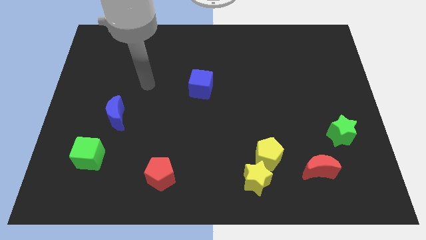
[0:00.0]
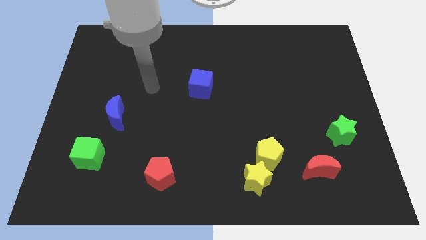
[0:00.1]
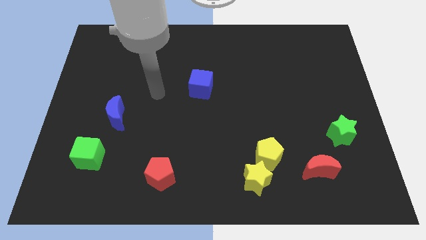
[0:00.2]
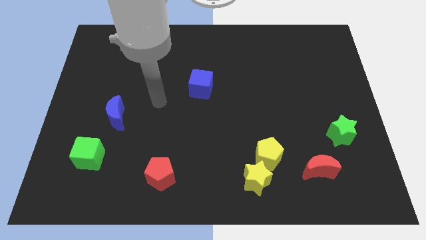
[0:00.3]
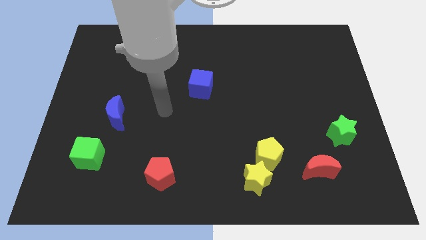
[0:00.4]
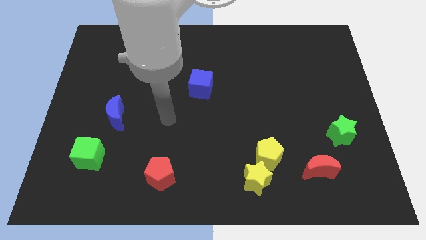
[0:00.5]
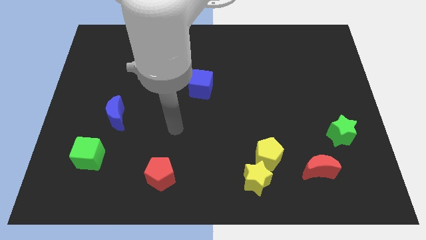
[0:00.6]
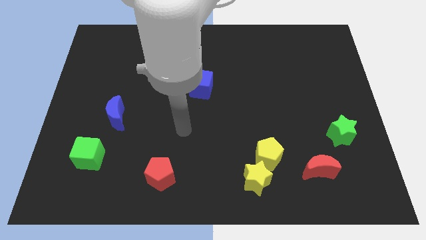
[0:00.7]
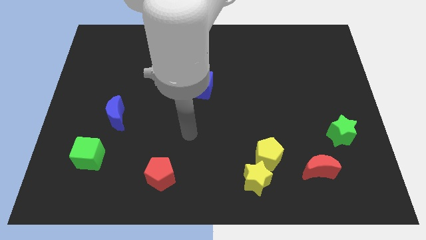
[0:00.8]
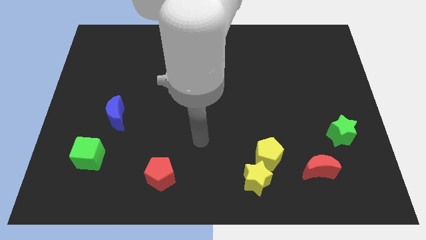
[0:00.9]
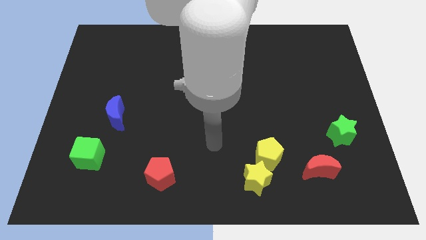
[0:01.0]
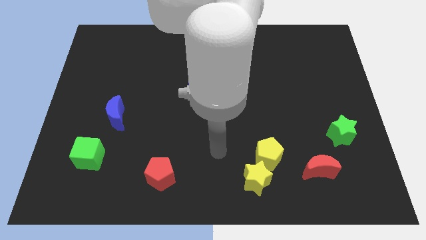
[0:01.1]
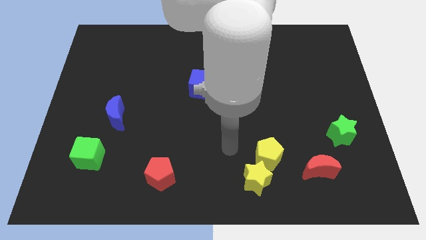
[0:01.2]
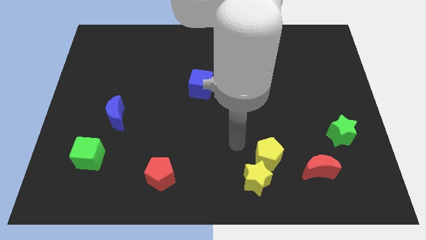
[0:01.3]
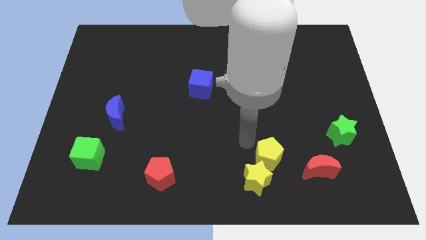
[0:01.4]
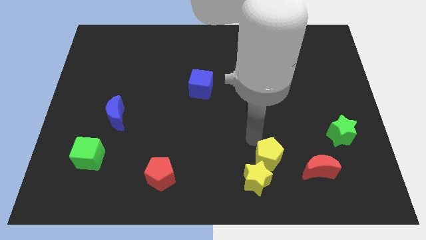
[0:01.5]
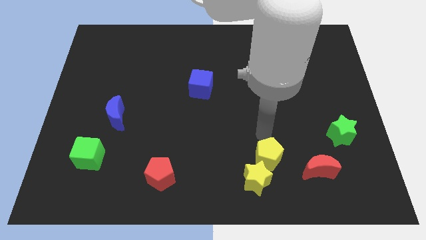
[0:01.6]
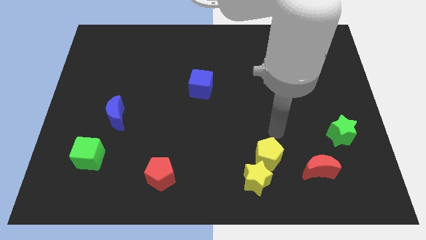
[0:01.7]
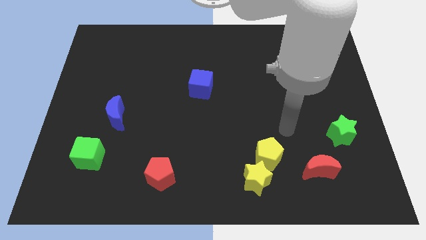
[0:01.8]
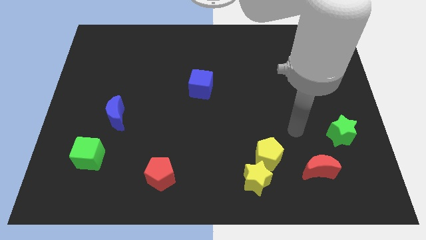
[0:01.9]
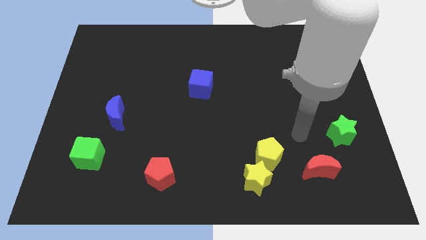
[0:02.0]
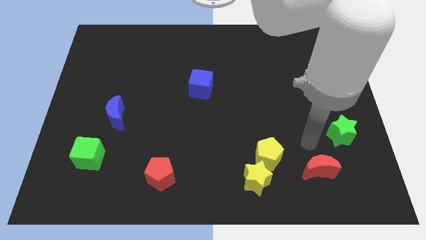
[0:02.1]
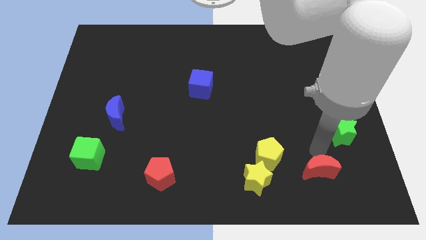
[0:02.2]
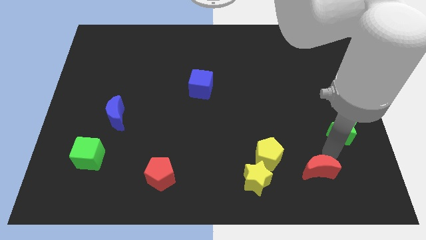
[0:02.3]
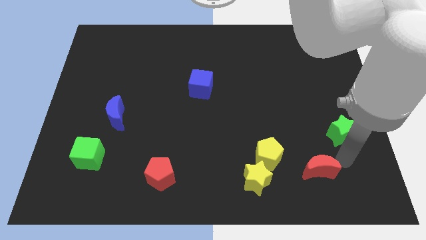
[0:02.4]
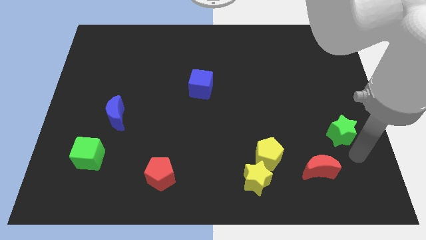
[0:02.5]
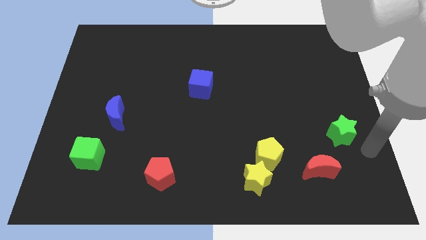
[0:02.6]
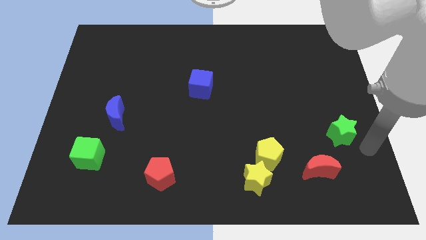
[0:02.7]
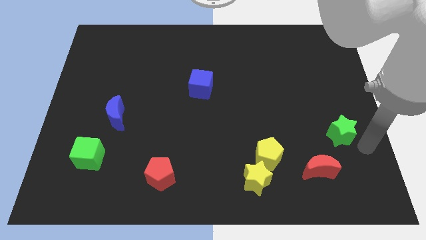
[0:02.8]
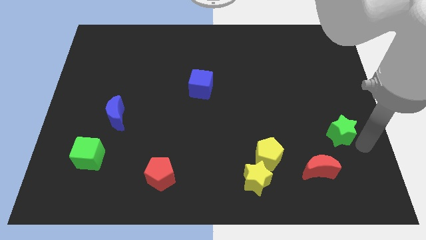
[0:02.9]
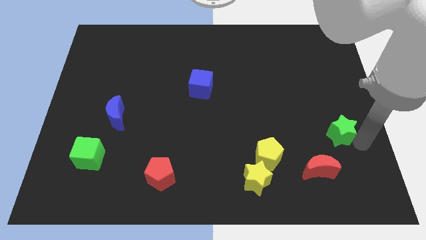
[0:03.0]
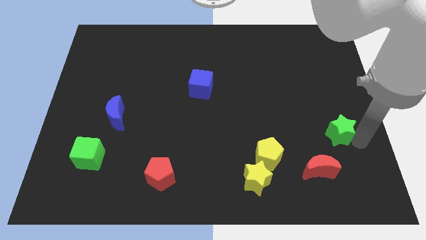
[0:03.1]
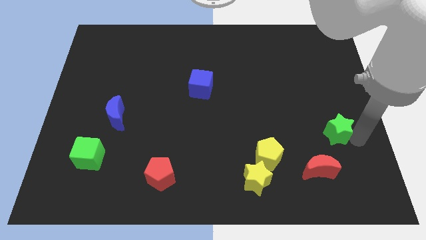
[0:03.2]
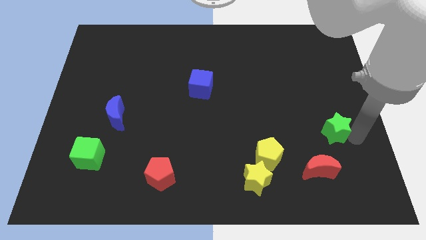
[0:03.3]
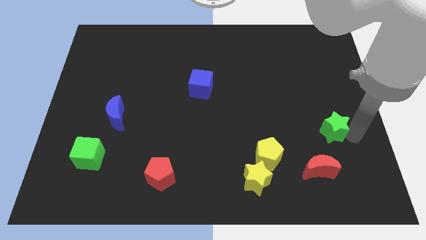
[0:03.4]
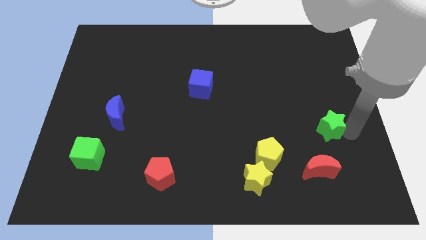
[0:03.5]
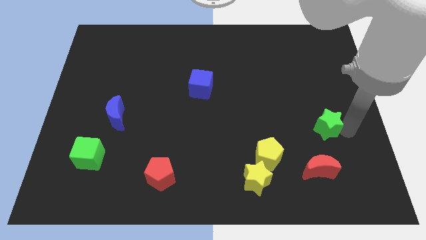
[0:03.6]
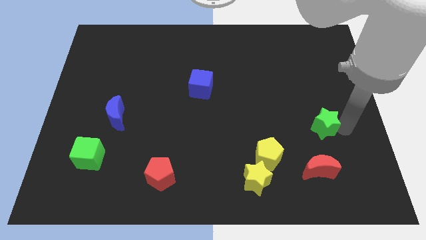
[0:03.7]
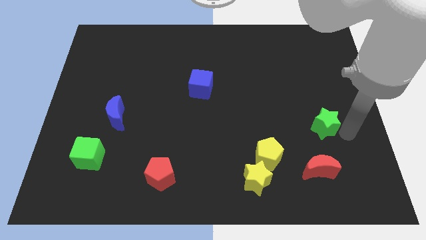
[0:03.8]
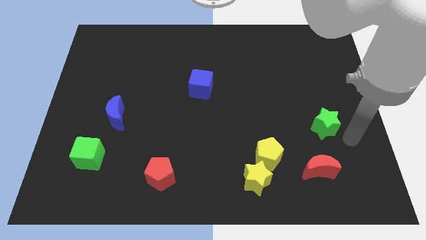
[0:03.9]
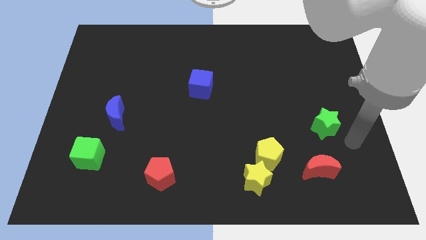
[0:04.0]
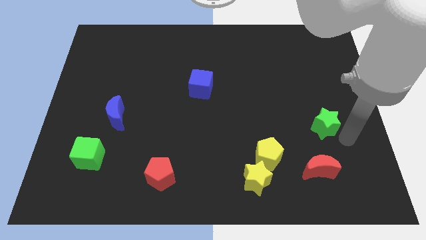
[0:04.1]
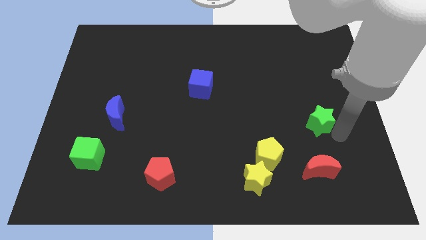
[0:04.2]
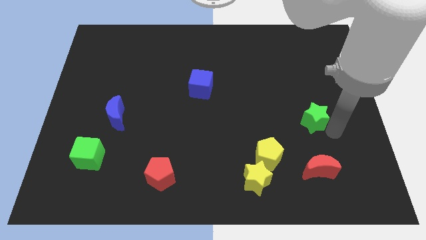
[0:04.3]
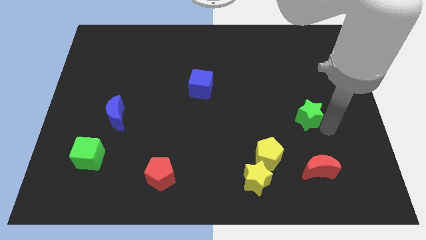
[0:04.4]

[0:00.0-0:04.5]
slightly slide the green star upwards and to the left

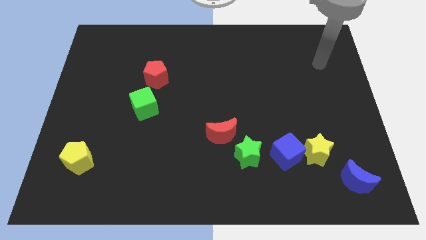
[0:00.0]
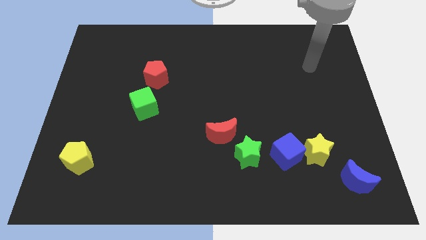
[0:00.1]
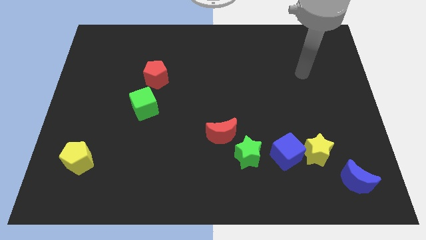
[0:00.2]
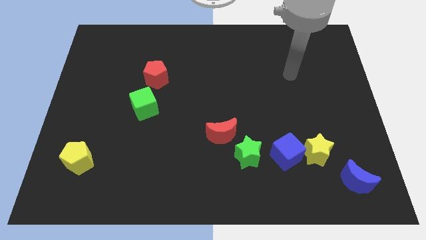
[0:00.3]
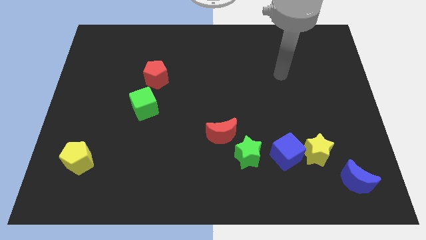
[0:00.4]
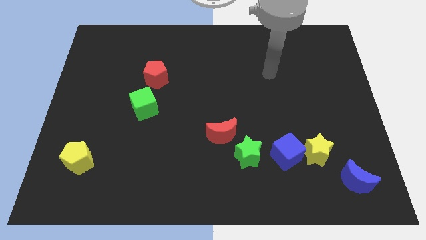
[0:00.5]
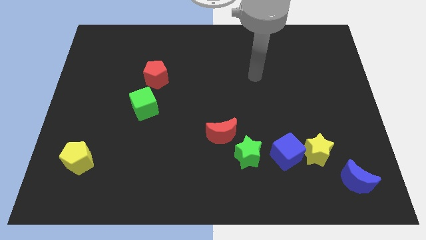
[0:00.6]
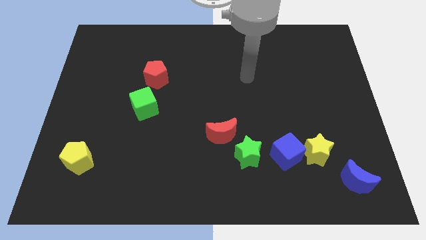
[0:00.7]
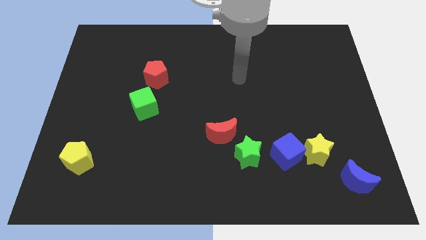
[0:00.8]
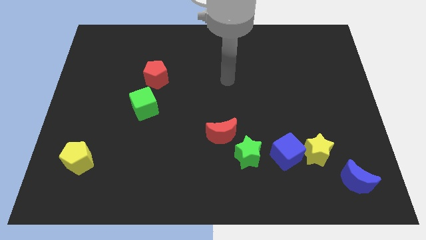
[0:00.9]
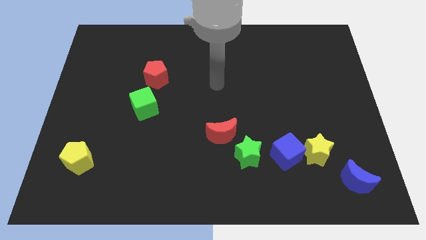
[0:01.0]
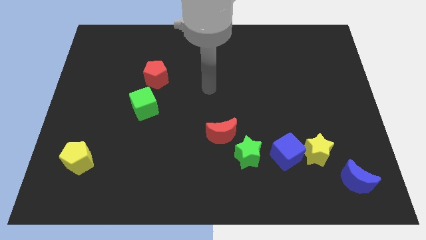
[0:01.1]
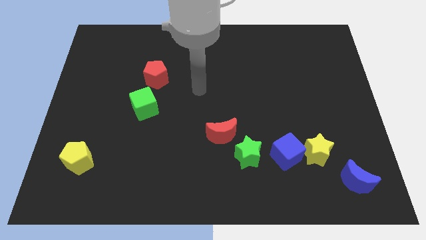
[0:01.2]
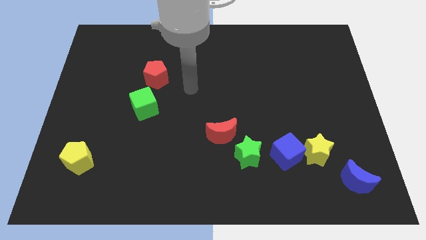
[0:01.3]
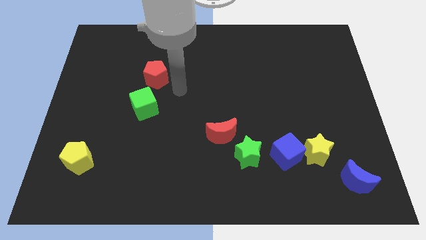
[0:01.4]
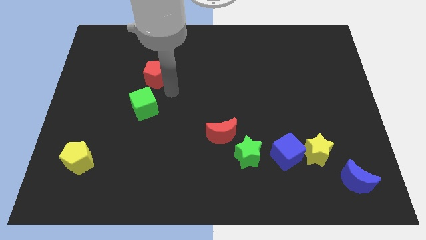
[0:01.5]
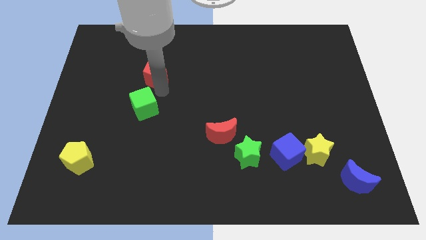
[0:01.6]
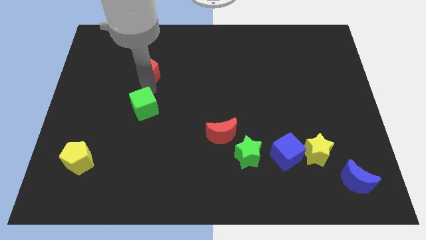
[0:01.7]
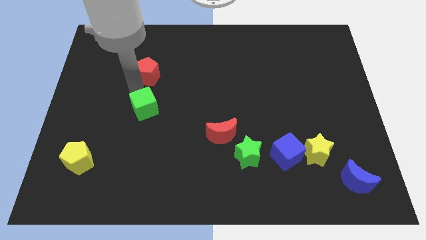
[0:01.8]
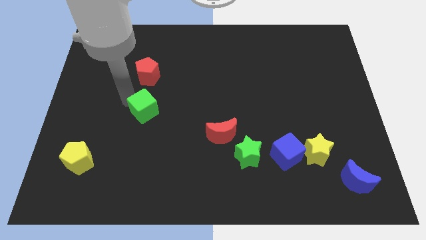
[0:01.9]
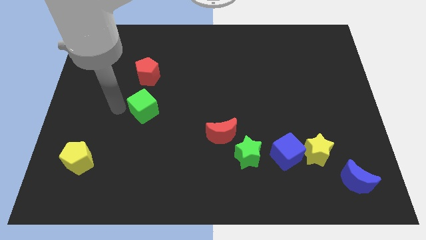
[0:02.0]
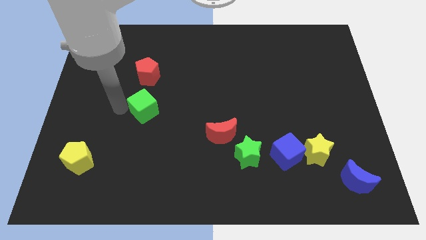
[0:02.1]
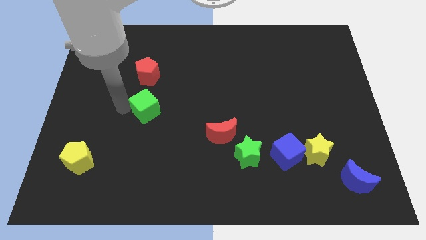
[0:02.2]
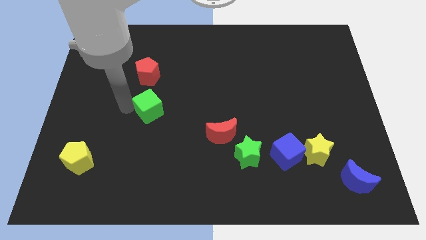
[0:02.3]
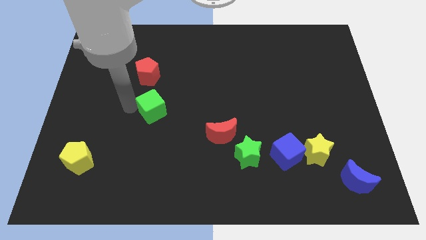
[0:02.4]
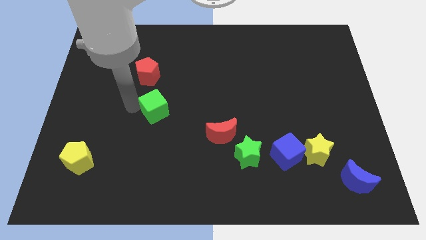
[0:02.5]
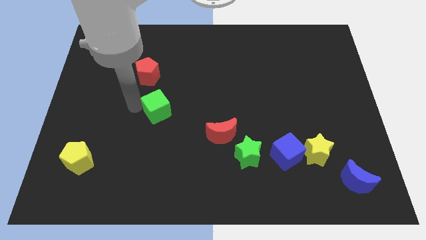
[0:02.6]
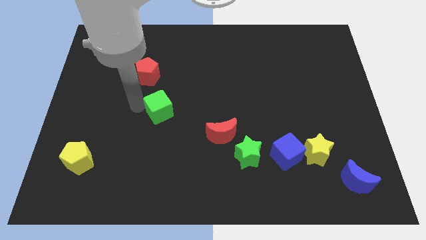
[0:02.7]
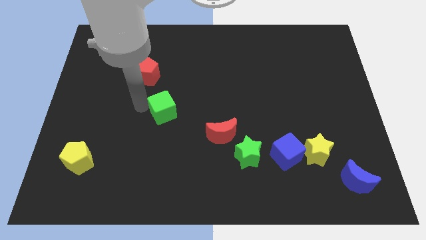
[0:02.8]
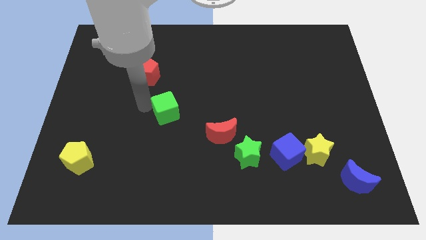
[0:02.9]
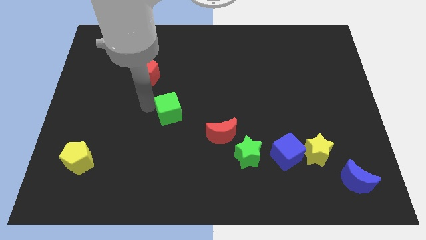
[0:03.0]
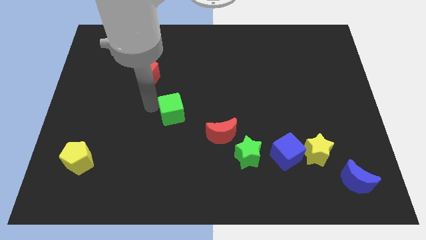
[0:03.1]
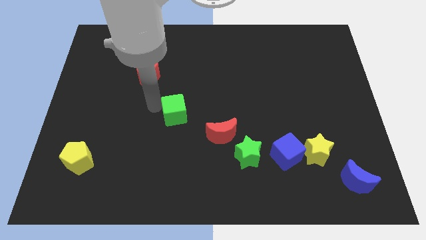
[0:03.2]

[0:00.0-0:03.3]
push the green cube right a little

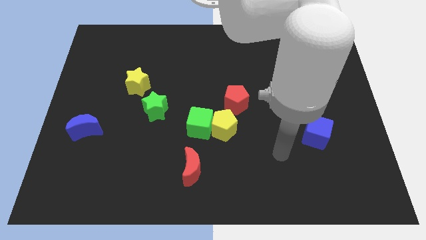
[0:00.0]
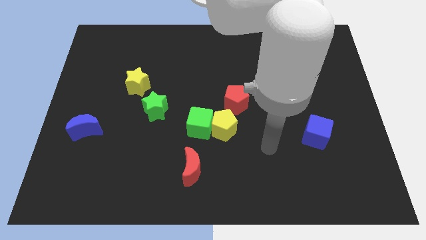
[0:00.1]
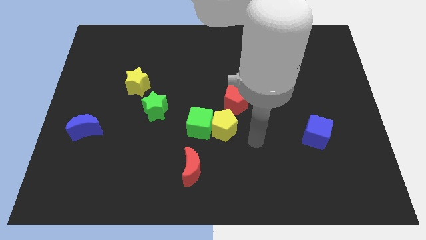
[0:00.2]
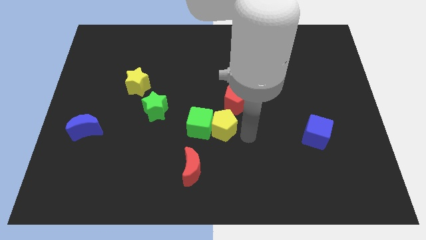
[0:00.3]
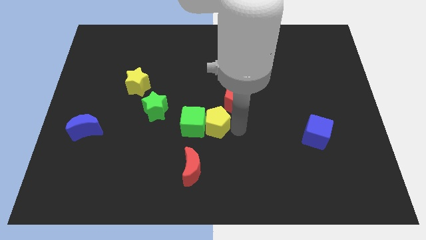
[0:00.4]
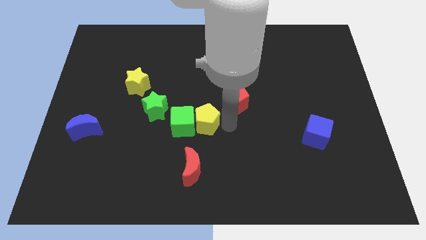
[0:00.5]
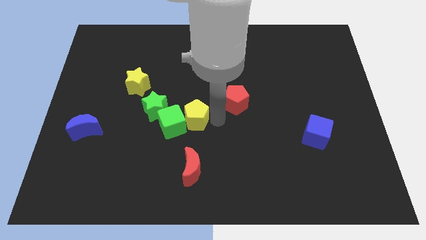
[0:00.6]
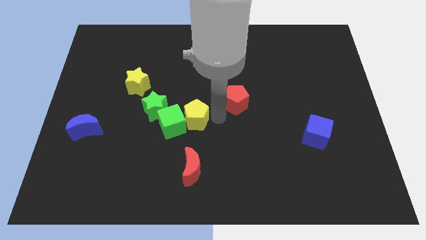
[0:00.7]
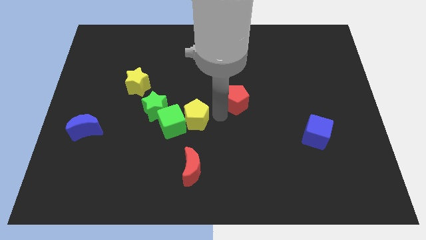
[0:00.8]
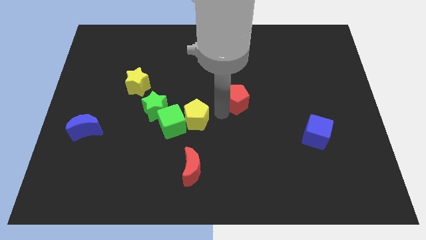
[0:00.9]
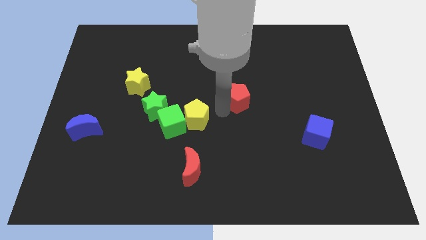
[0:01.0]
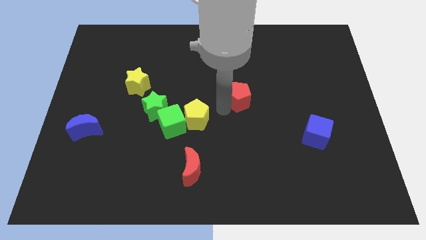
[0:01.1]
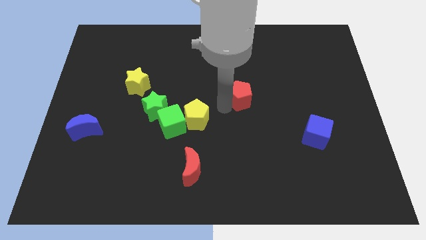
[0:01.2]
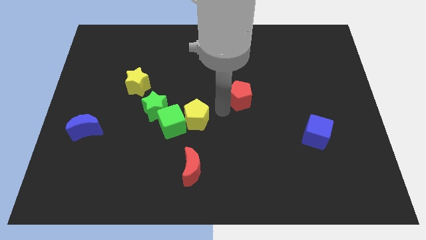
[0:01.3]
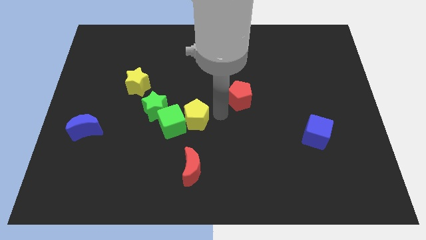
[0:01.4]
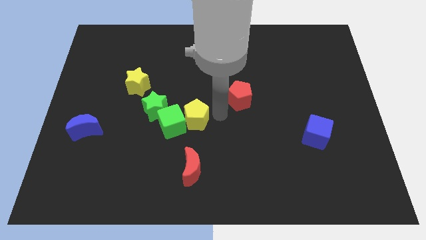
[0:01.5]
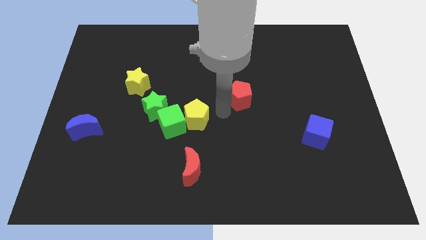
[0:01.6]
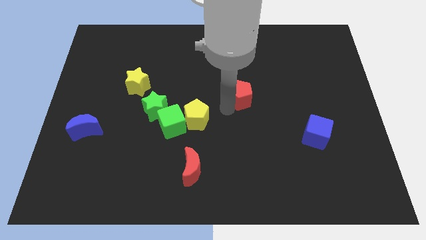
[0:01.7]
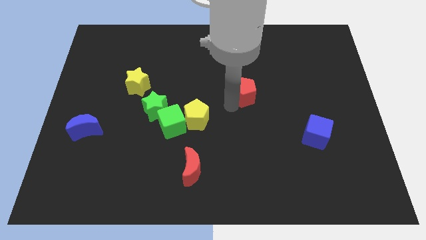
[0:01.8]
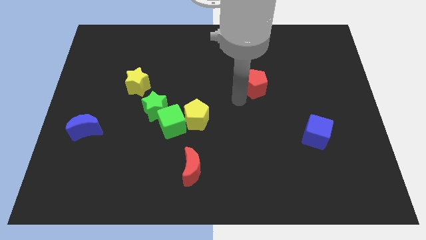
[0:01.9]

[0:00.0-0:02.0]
slightly push the red pentagon diagonally up and to the right
